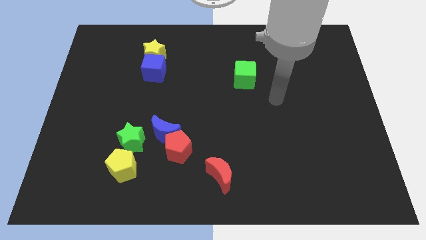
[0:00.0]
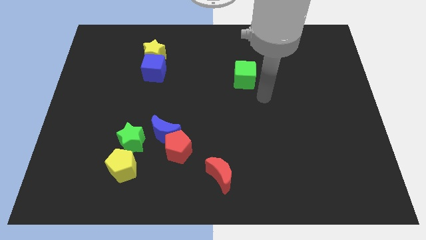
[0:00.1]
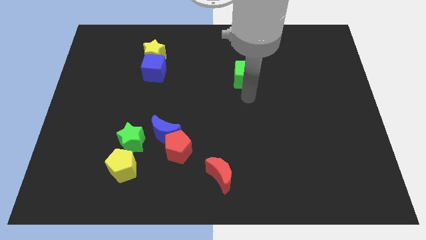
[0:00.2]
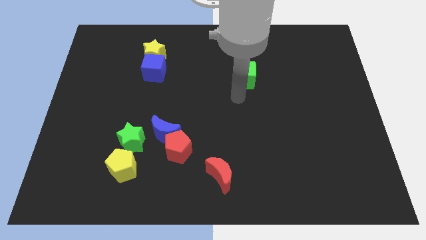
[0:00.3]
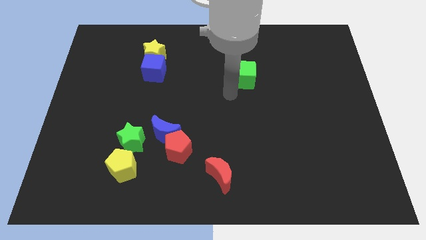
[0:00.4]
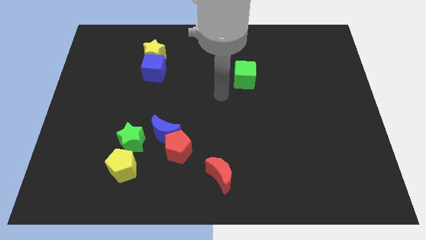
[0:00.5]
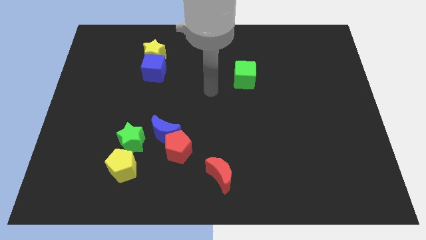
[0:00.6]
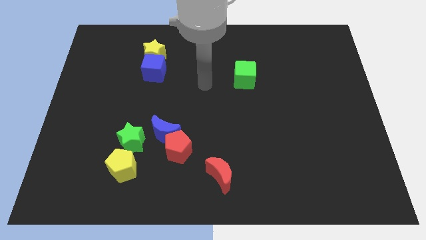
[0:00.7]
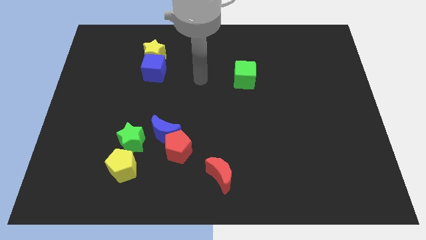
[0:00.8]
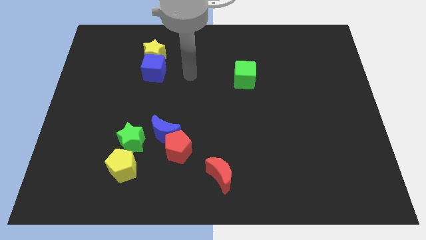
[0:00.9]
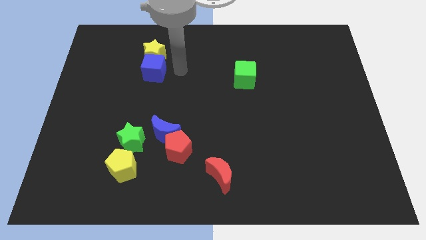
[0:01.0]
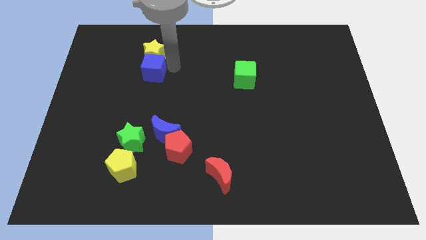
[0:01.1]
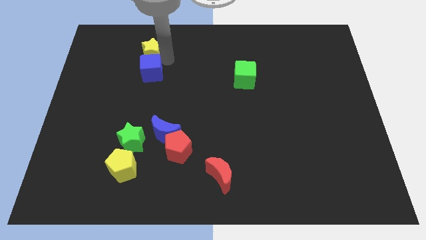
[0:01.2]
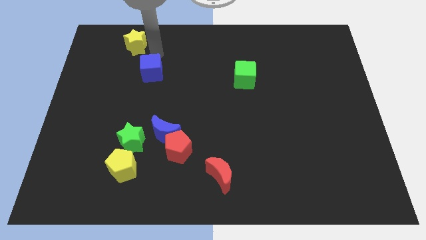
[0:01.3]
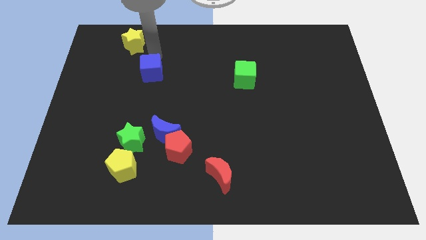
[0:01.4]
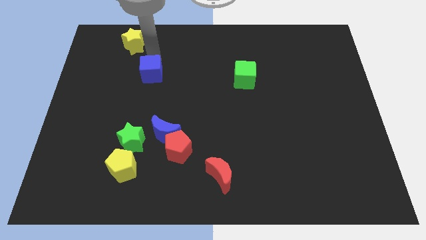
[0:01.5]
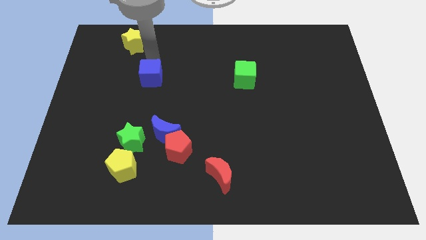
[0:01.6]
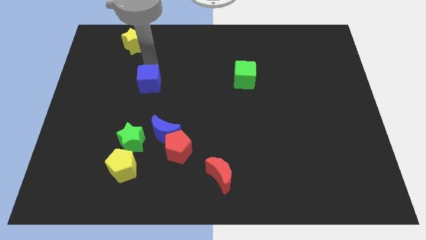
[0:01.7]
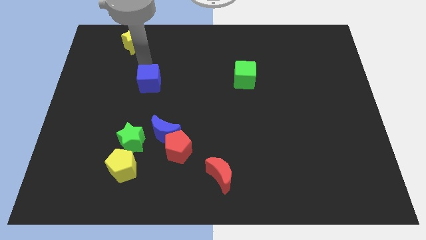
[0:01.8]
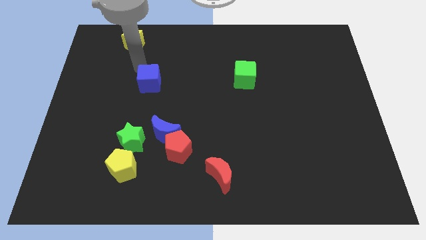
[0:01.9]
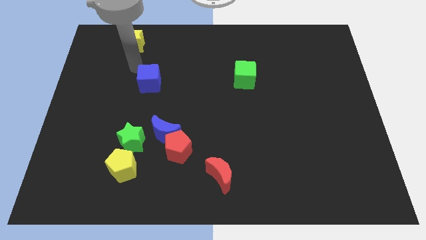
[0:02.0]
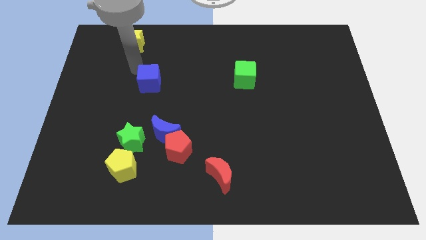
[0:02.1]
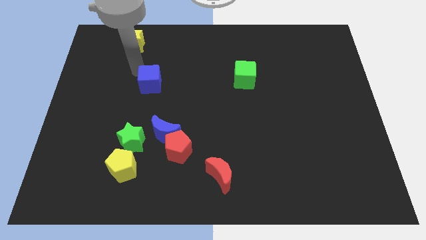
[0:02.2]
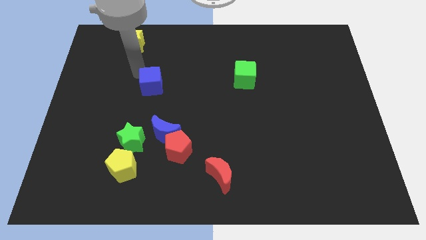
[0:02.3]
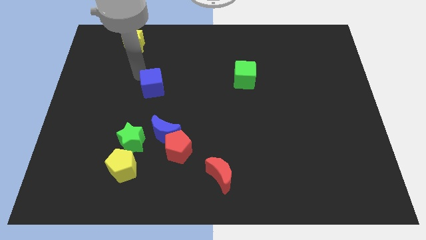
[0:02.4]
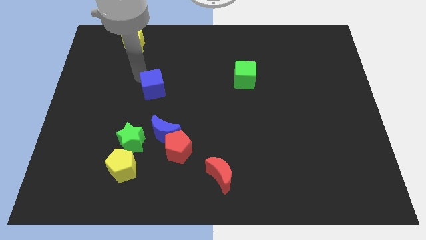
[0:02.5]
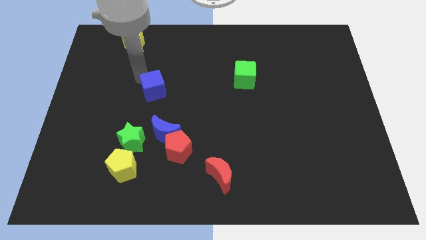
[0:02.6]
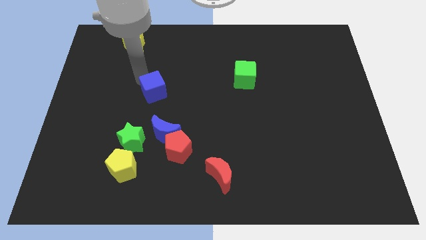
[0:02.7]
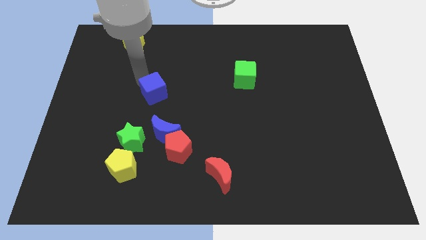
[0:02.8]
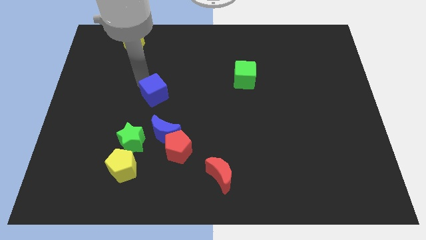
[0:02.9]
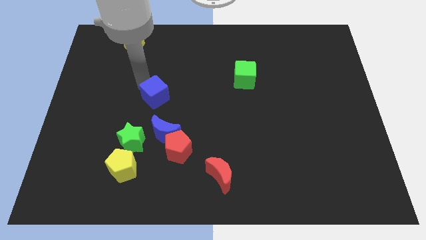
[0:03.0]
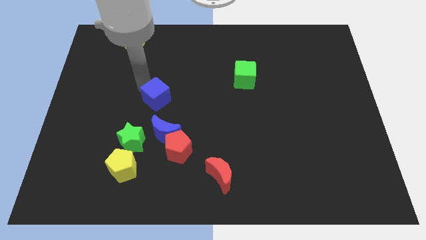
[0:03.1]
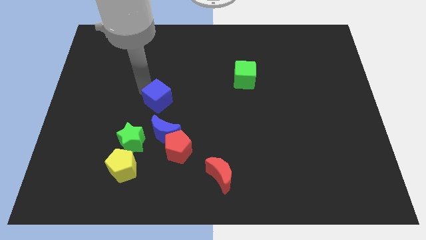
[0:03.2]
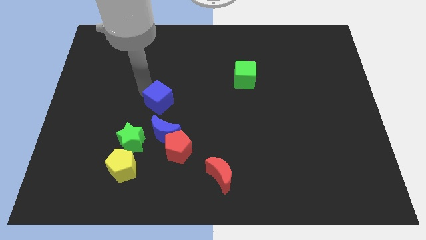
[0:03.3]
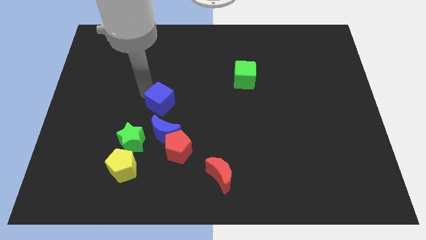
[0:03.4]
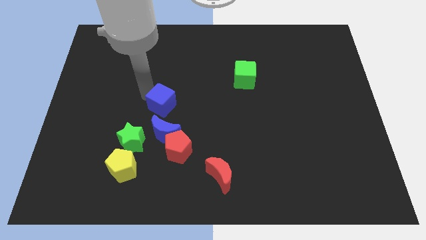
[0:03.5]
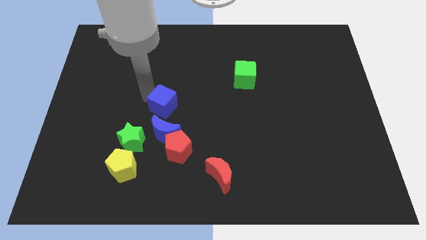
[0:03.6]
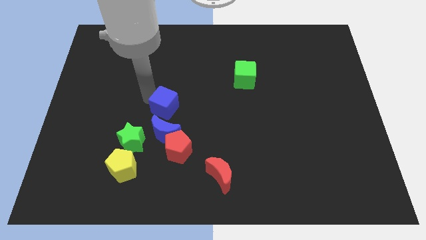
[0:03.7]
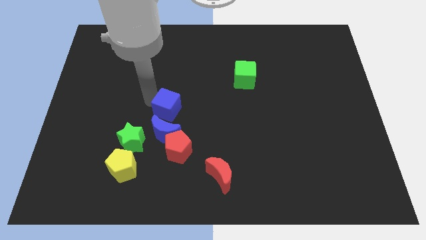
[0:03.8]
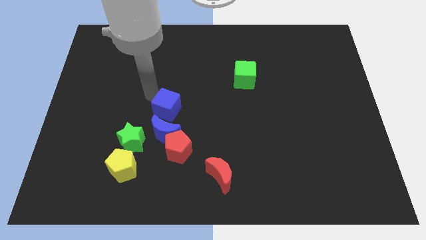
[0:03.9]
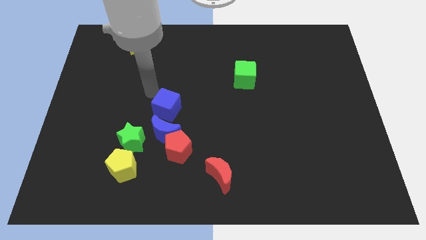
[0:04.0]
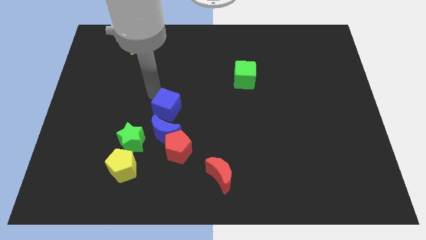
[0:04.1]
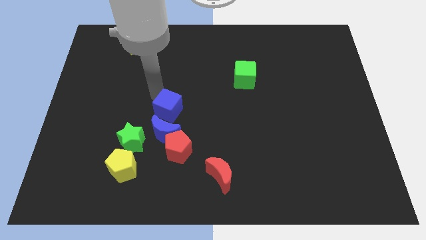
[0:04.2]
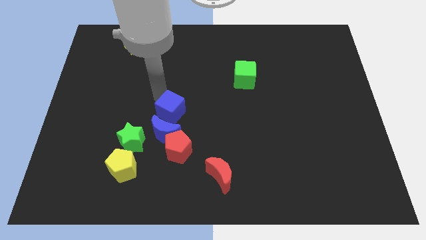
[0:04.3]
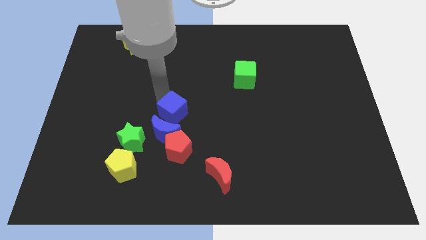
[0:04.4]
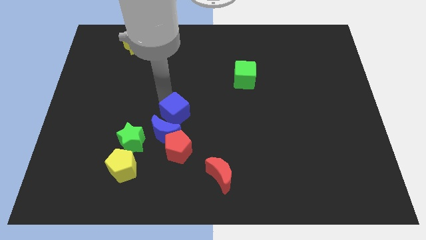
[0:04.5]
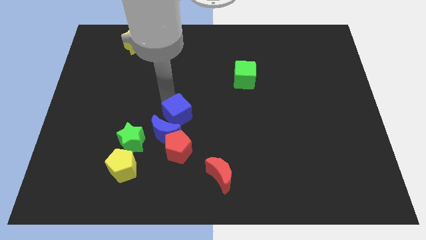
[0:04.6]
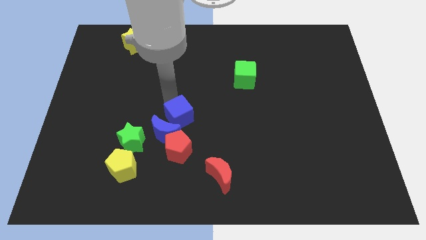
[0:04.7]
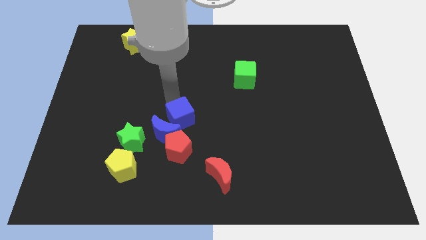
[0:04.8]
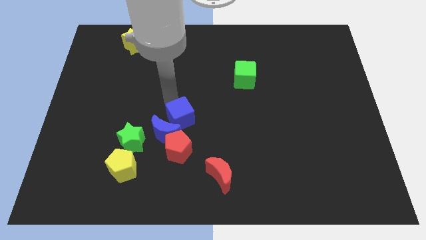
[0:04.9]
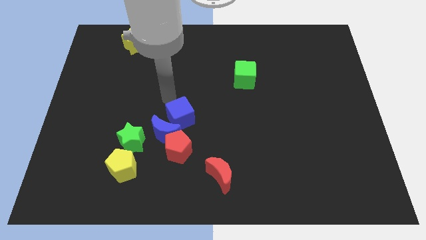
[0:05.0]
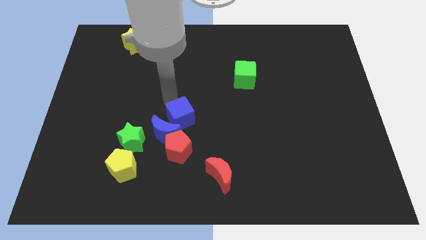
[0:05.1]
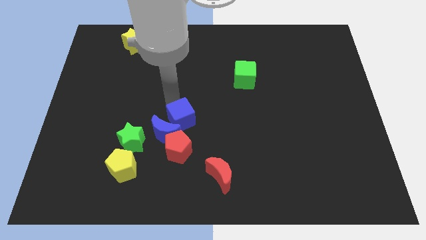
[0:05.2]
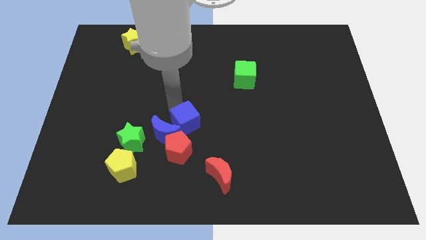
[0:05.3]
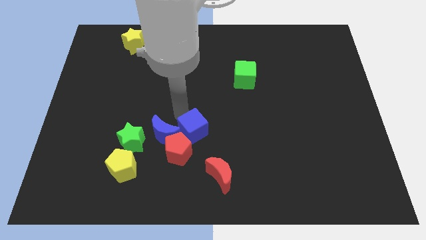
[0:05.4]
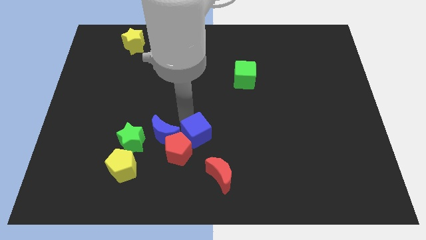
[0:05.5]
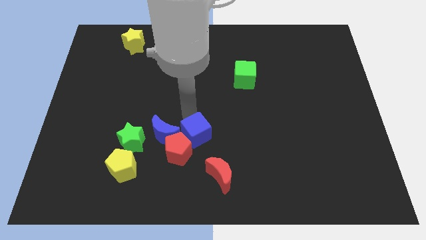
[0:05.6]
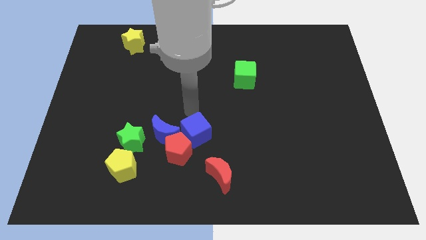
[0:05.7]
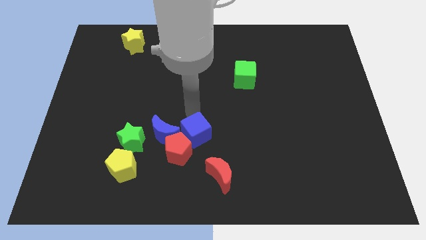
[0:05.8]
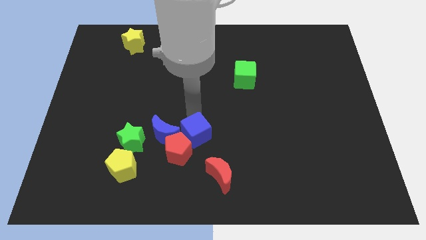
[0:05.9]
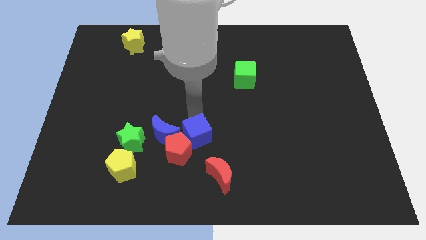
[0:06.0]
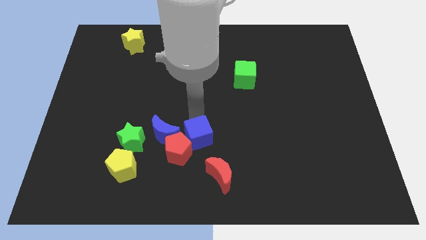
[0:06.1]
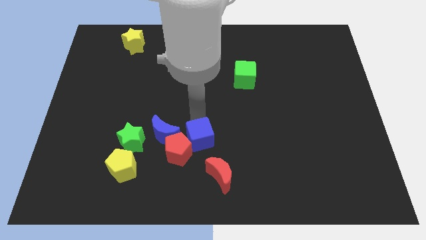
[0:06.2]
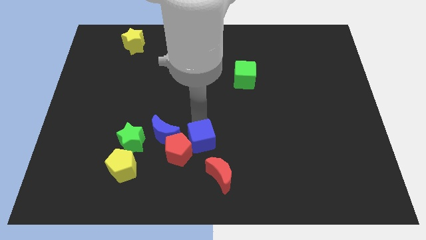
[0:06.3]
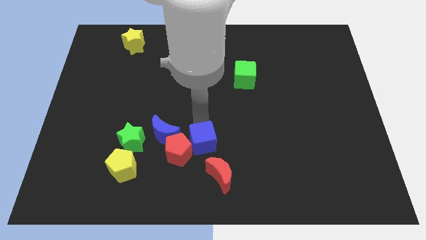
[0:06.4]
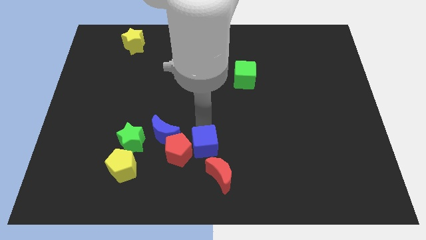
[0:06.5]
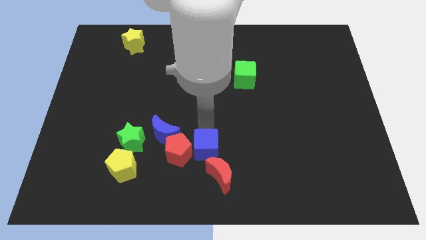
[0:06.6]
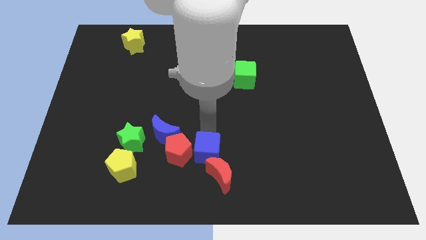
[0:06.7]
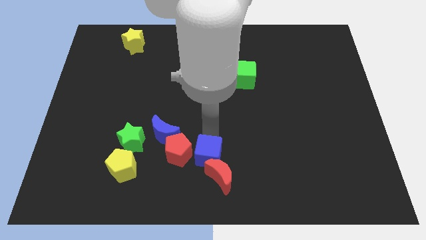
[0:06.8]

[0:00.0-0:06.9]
slide the blue cube to the bottom side
